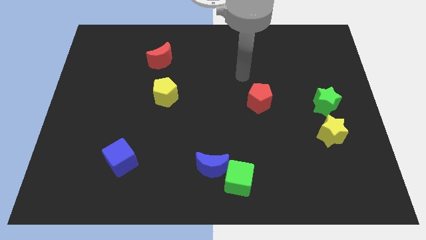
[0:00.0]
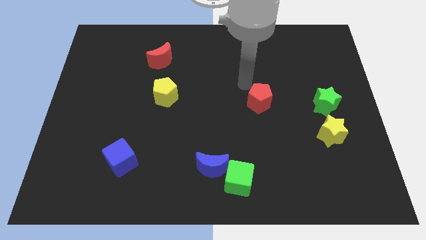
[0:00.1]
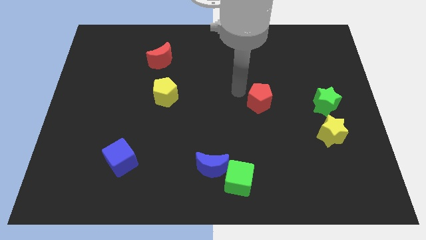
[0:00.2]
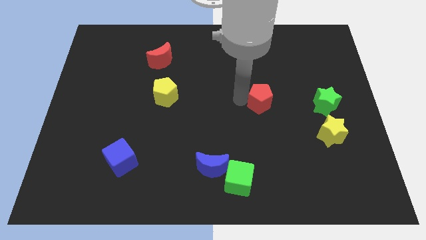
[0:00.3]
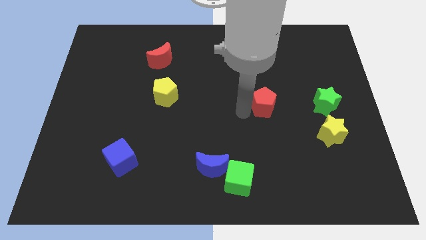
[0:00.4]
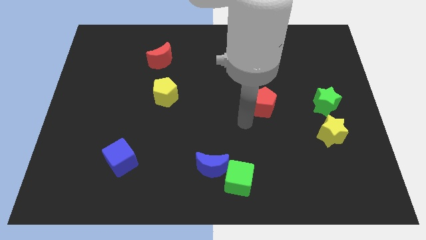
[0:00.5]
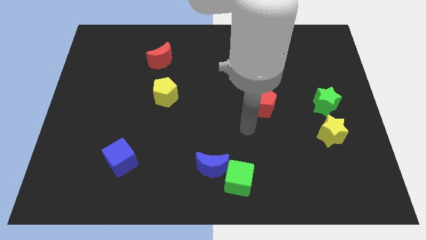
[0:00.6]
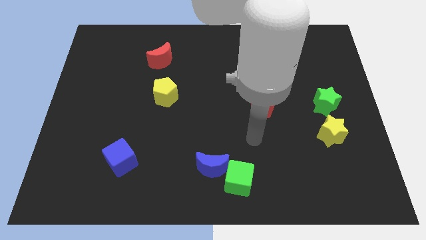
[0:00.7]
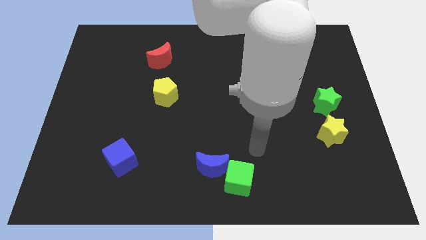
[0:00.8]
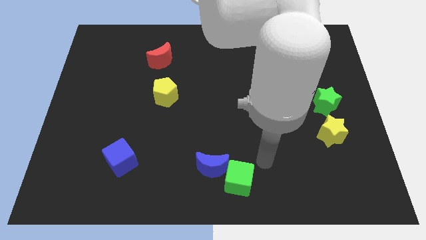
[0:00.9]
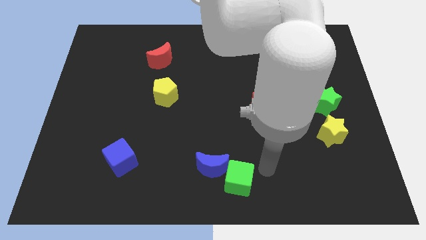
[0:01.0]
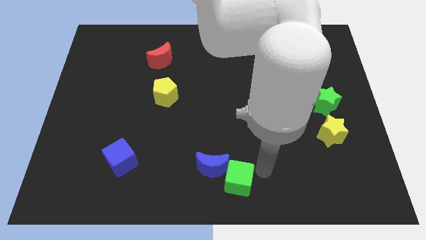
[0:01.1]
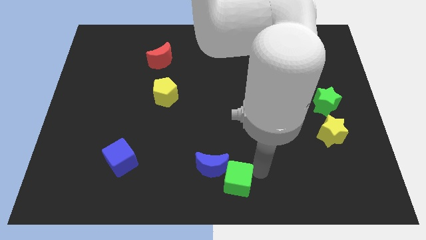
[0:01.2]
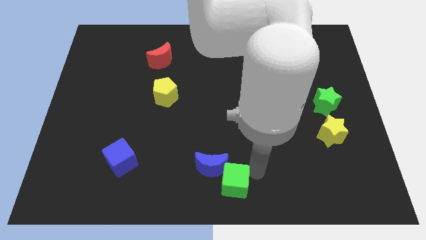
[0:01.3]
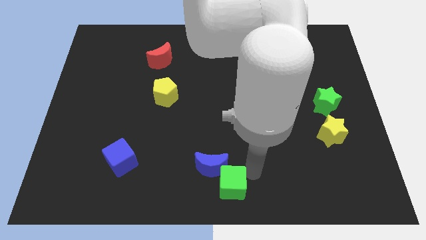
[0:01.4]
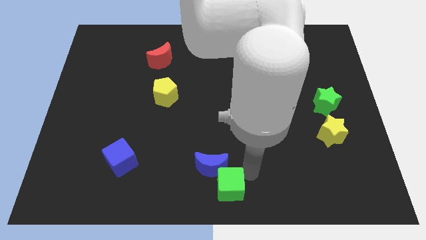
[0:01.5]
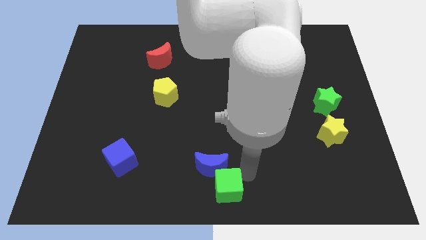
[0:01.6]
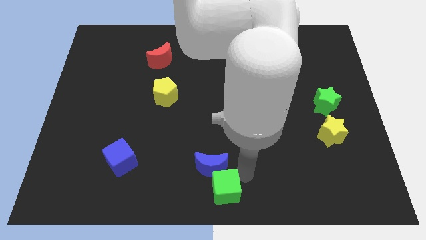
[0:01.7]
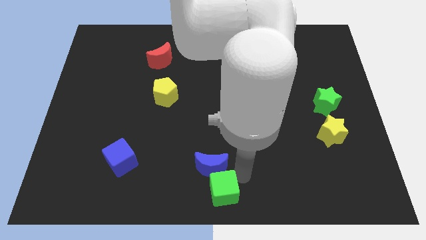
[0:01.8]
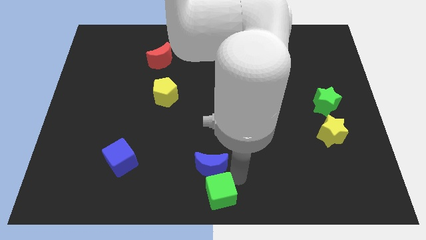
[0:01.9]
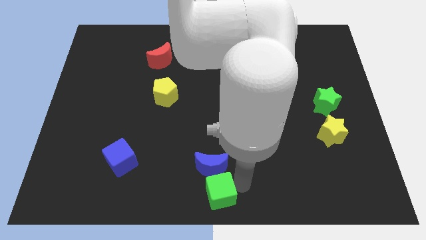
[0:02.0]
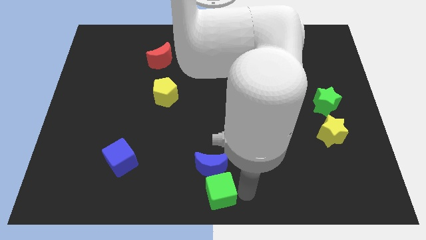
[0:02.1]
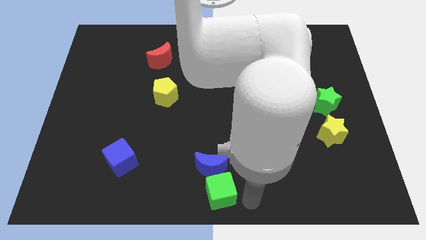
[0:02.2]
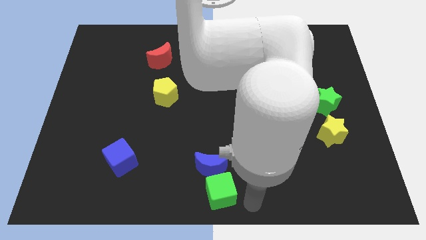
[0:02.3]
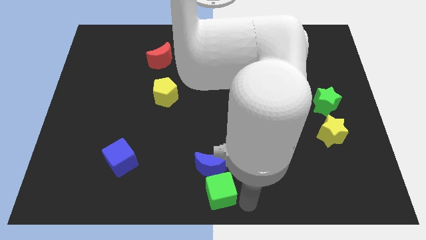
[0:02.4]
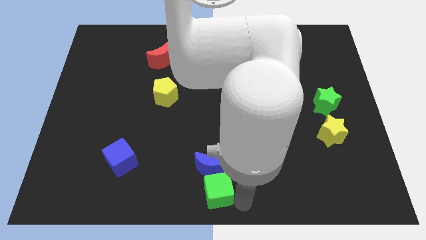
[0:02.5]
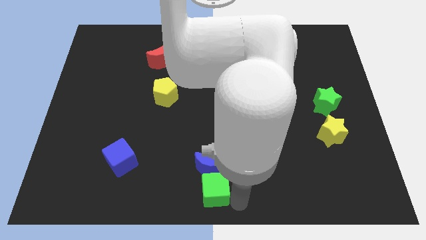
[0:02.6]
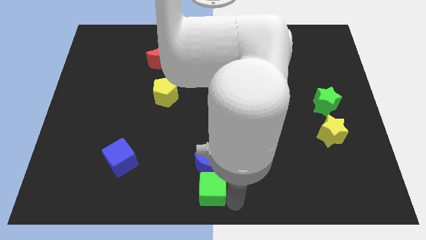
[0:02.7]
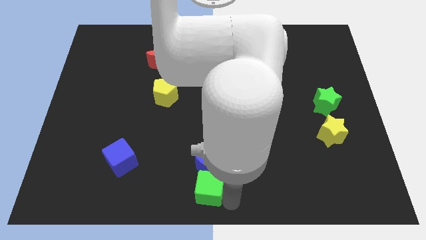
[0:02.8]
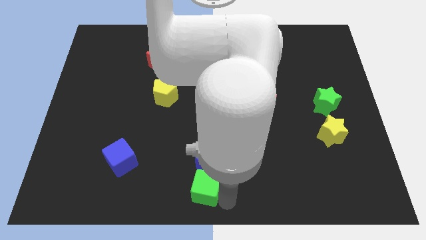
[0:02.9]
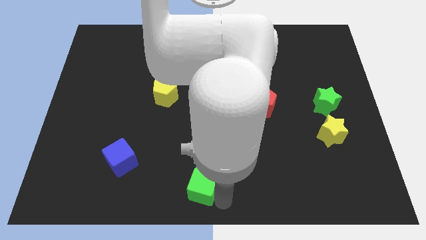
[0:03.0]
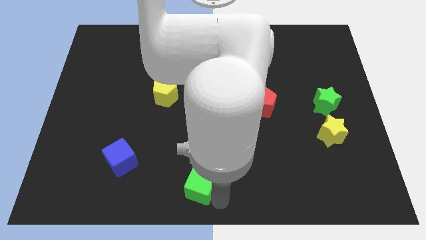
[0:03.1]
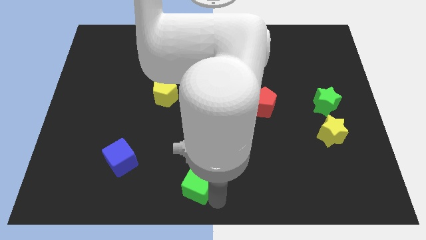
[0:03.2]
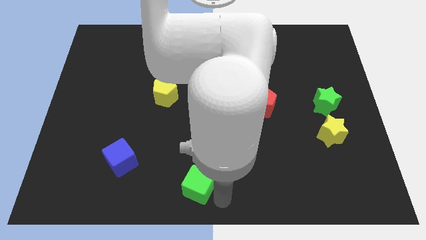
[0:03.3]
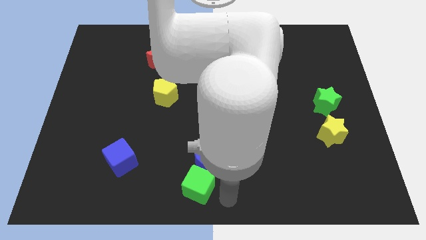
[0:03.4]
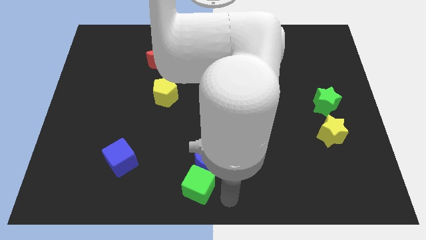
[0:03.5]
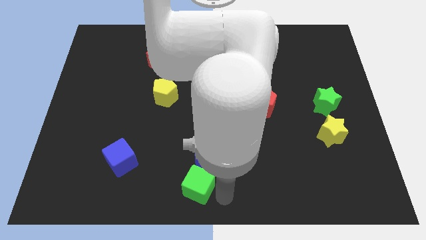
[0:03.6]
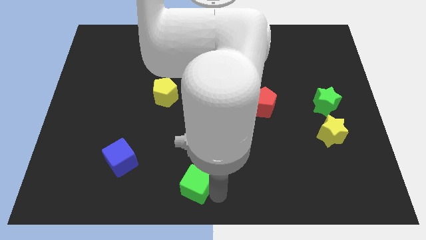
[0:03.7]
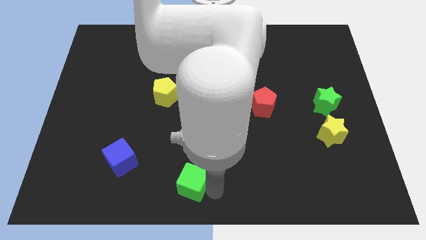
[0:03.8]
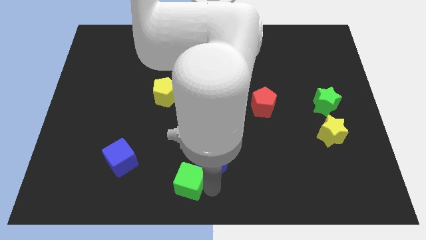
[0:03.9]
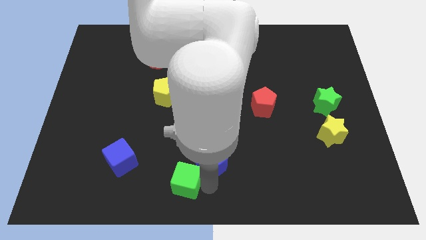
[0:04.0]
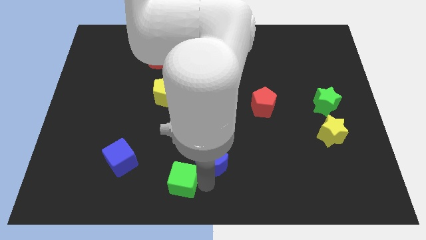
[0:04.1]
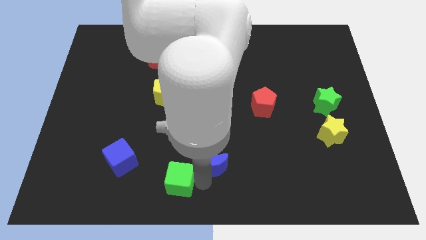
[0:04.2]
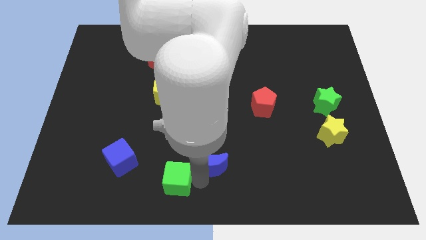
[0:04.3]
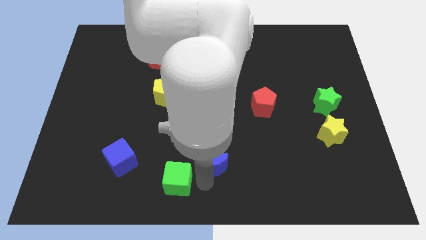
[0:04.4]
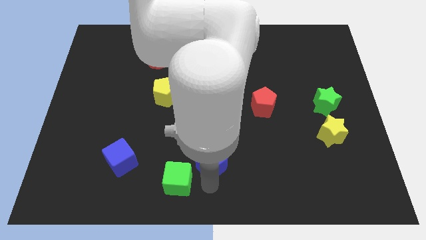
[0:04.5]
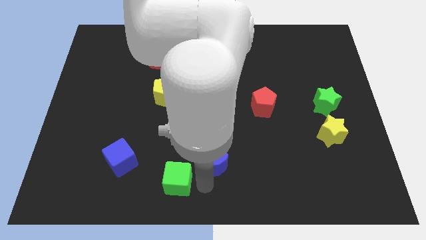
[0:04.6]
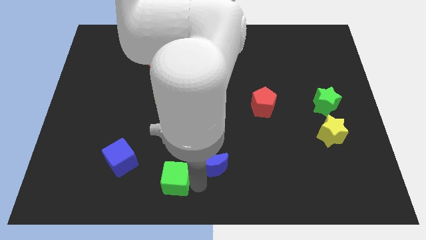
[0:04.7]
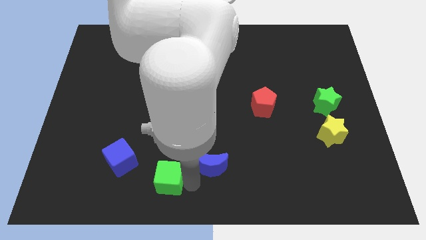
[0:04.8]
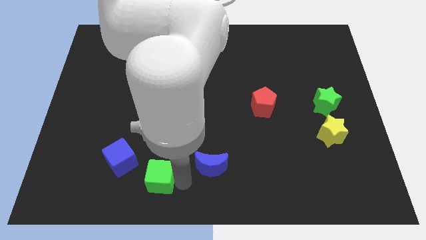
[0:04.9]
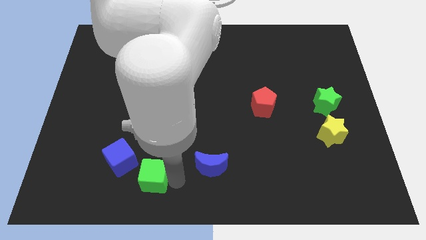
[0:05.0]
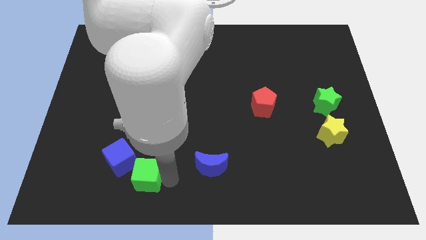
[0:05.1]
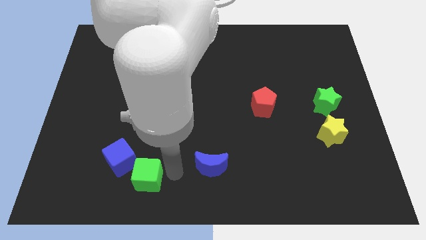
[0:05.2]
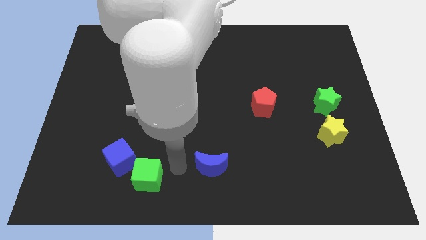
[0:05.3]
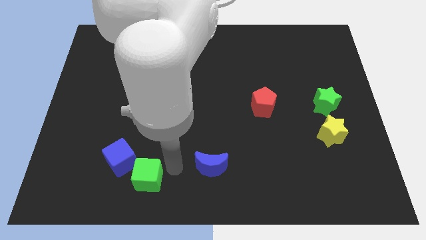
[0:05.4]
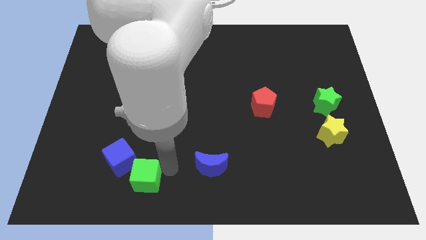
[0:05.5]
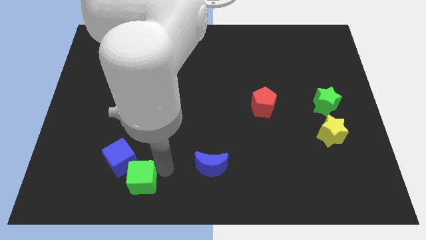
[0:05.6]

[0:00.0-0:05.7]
move the green cube left

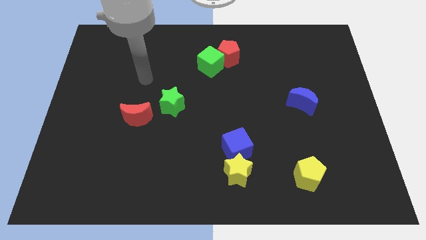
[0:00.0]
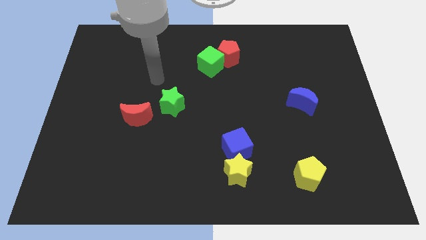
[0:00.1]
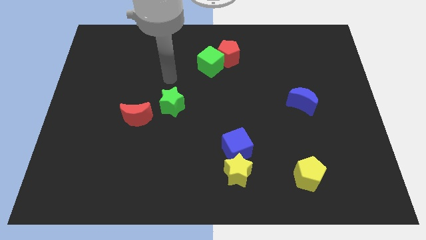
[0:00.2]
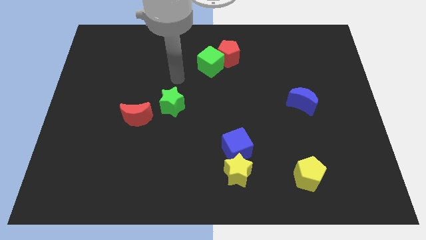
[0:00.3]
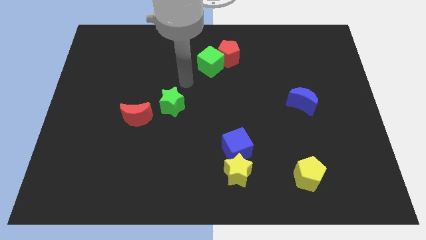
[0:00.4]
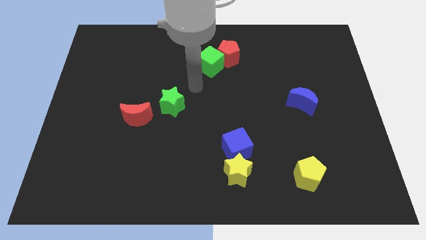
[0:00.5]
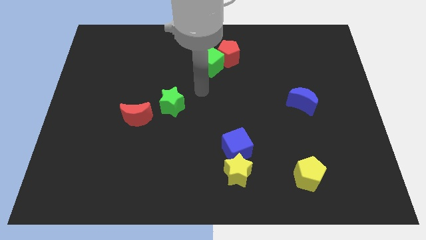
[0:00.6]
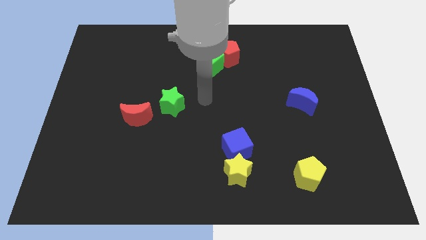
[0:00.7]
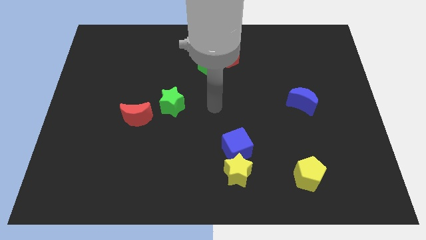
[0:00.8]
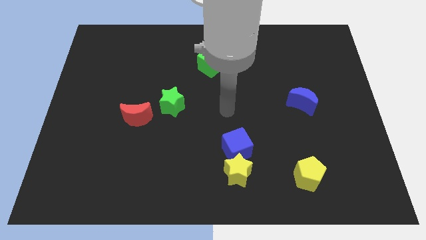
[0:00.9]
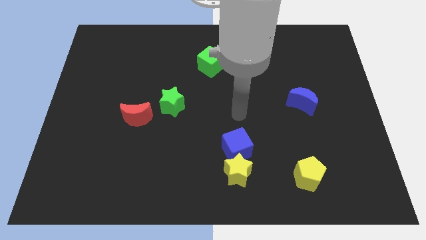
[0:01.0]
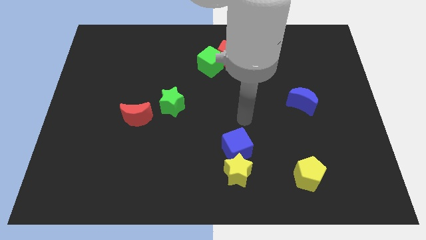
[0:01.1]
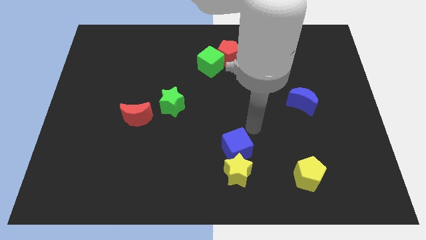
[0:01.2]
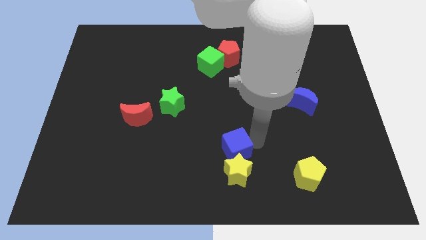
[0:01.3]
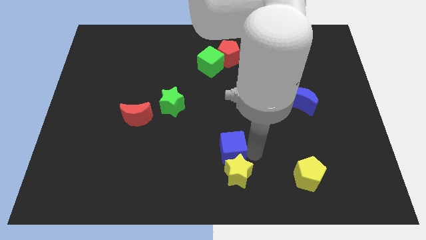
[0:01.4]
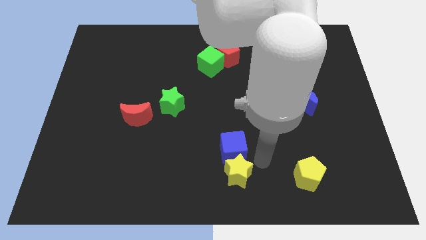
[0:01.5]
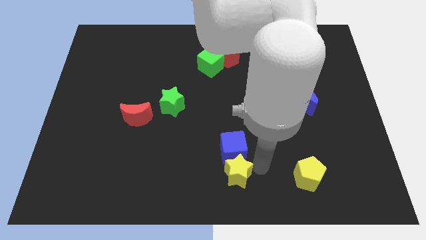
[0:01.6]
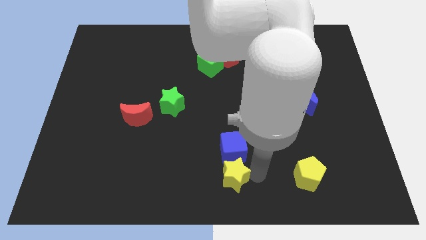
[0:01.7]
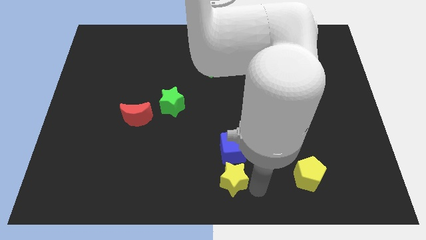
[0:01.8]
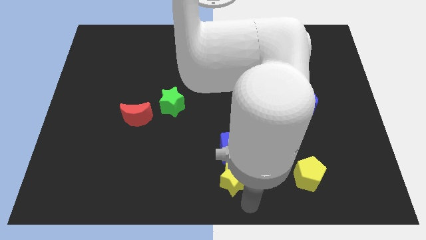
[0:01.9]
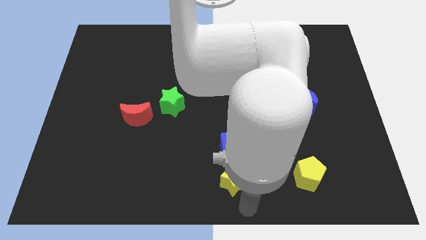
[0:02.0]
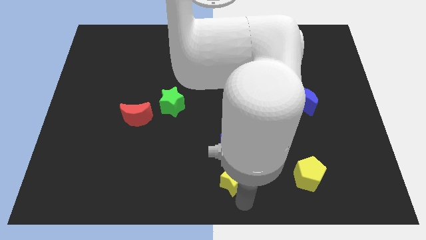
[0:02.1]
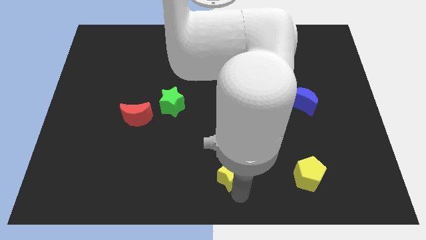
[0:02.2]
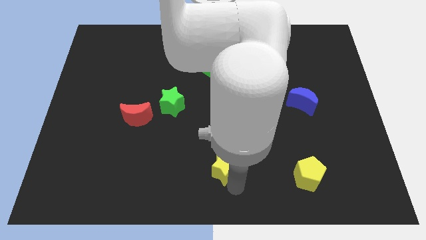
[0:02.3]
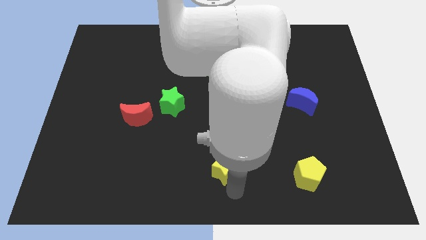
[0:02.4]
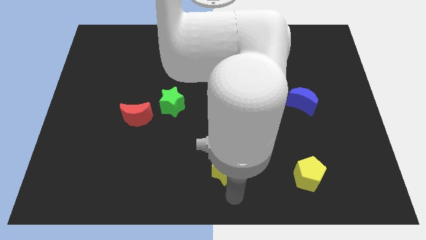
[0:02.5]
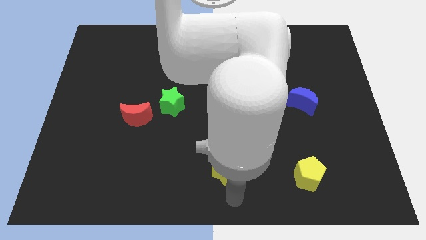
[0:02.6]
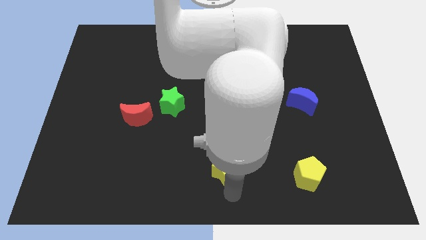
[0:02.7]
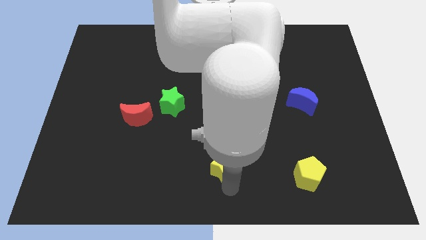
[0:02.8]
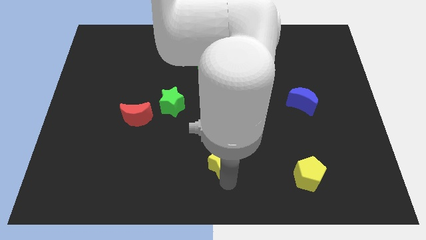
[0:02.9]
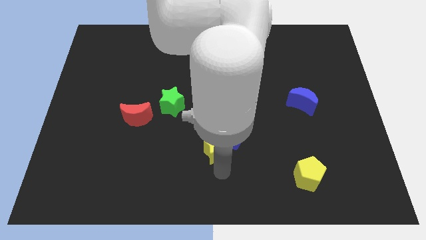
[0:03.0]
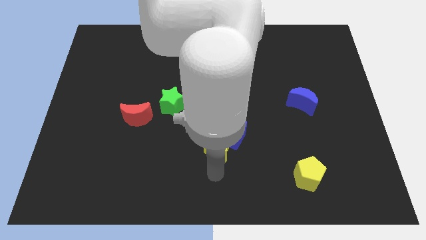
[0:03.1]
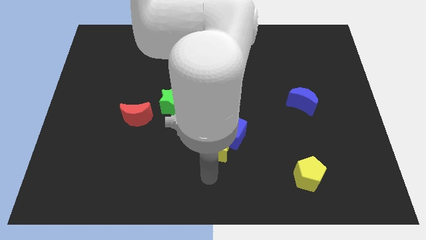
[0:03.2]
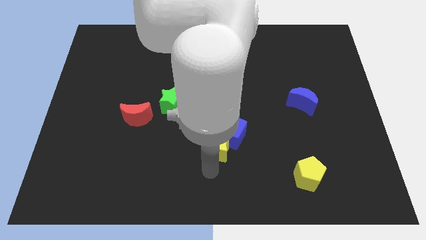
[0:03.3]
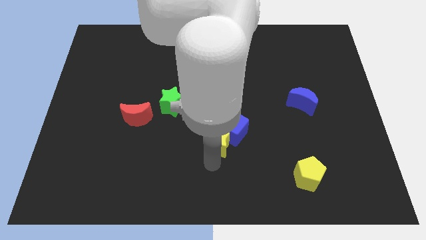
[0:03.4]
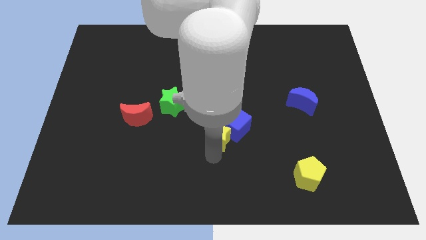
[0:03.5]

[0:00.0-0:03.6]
push the yellow star somewhat up
